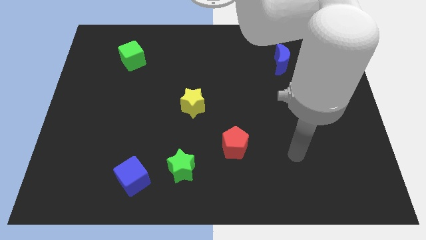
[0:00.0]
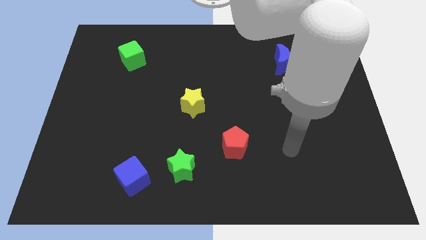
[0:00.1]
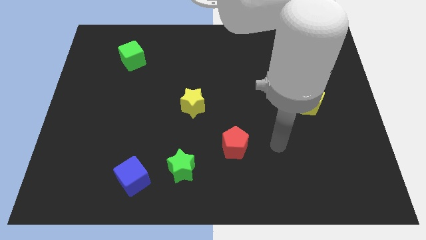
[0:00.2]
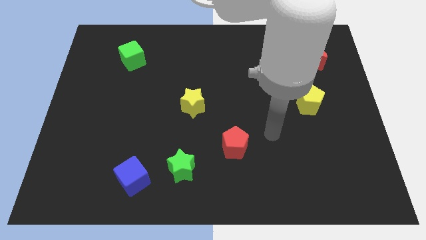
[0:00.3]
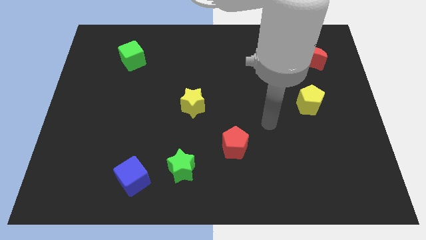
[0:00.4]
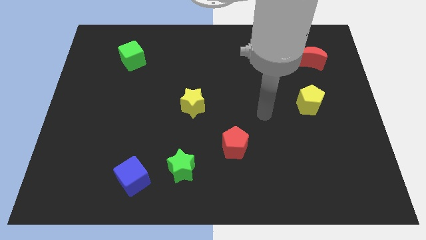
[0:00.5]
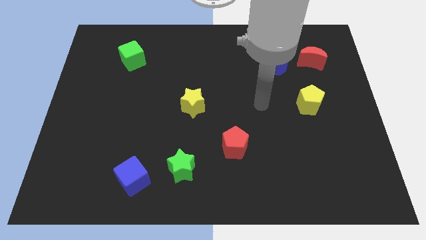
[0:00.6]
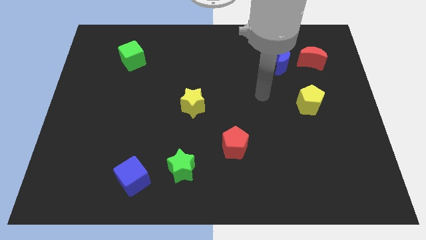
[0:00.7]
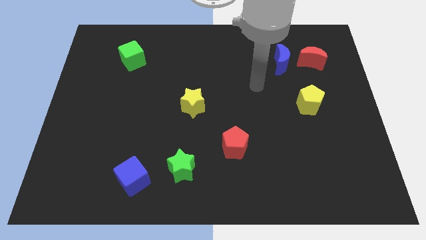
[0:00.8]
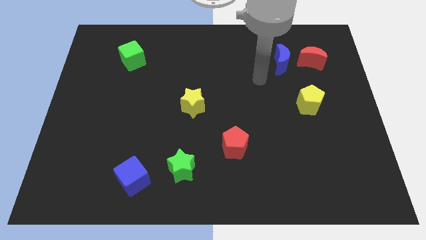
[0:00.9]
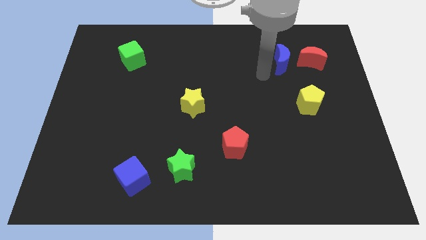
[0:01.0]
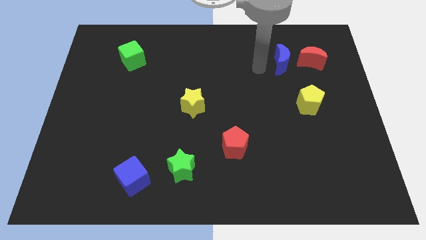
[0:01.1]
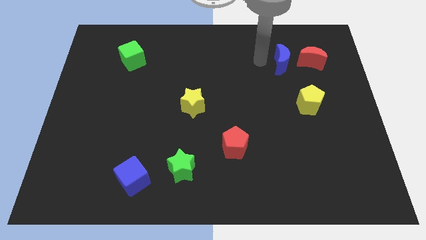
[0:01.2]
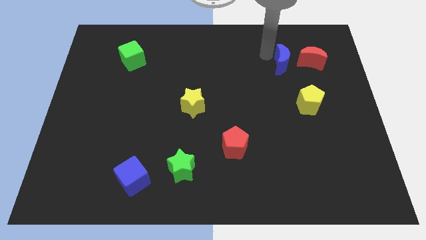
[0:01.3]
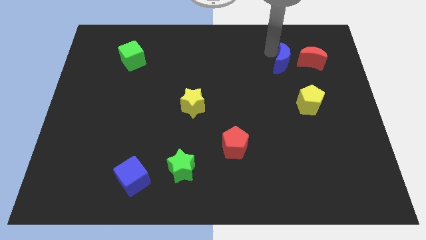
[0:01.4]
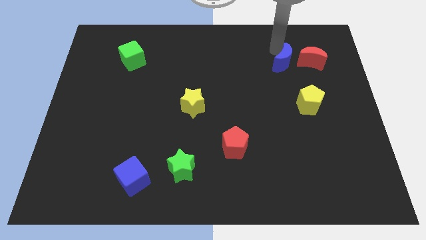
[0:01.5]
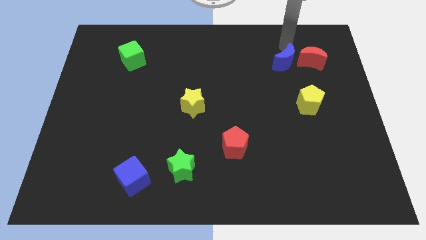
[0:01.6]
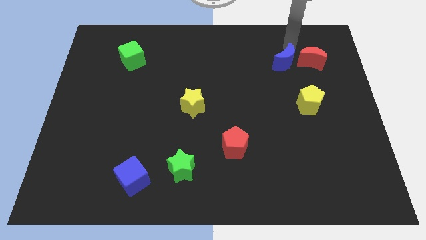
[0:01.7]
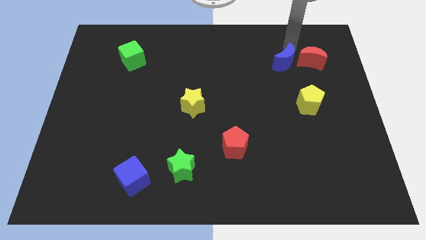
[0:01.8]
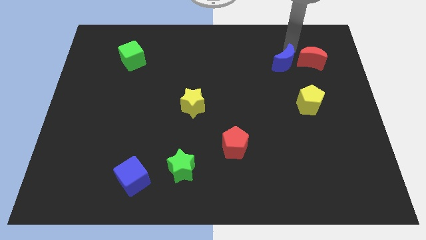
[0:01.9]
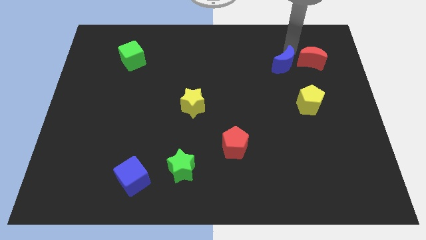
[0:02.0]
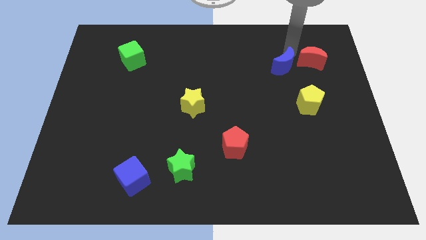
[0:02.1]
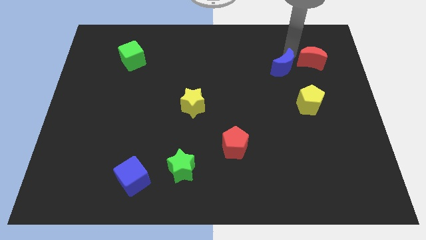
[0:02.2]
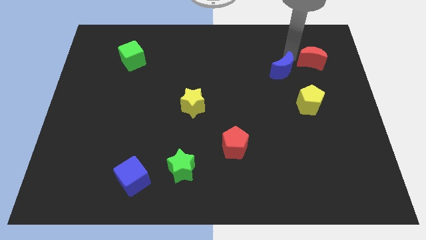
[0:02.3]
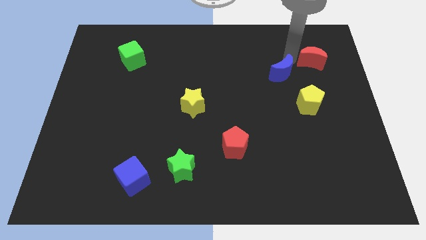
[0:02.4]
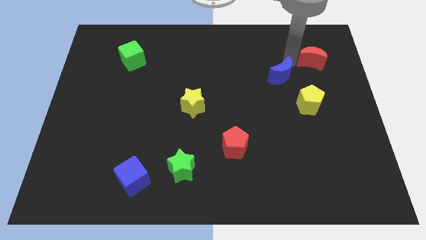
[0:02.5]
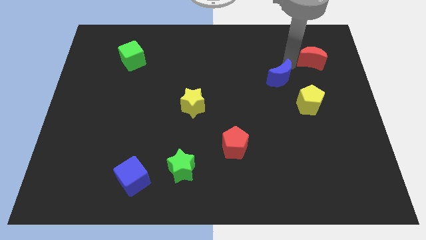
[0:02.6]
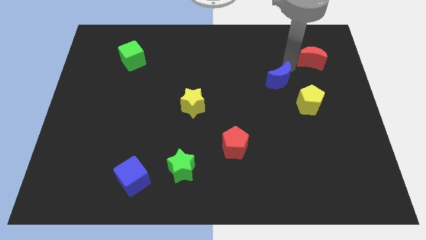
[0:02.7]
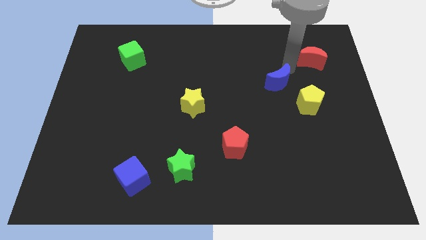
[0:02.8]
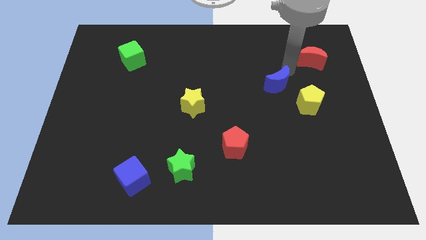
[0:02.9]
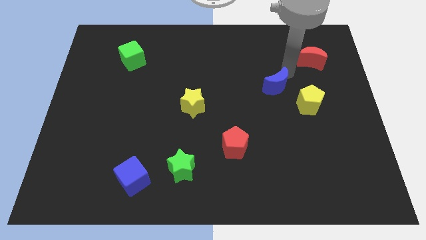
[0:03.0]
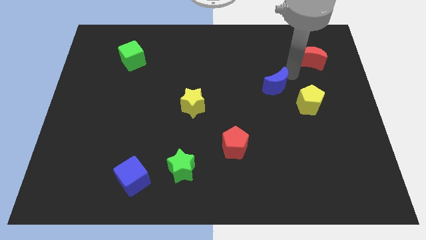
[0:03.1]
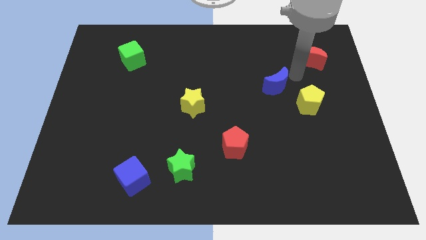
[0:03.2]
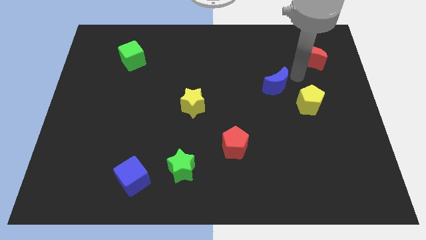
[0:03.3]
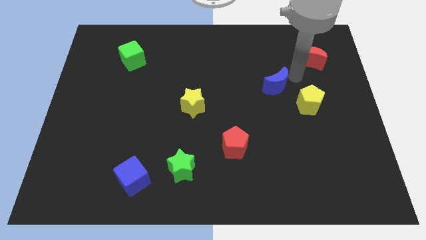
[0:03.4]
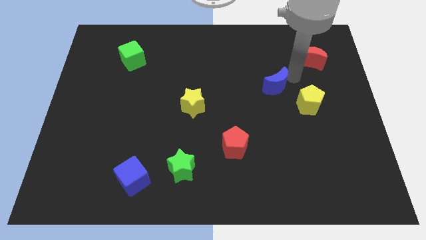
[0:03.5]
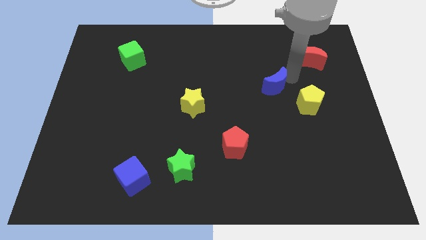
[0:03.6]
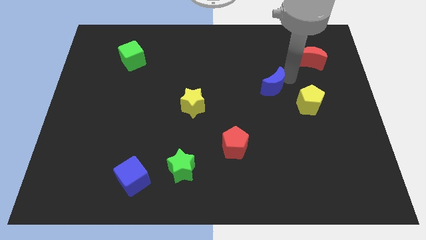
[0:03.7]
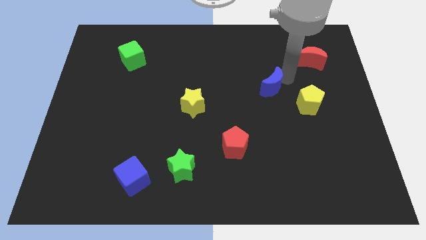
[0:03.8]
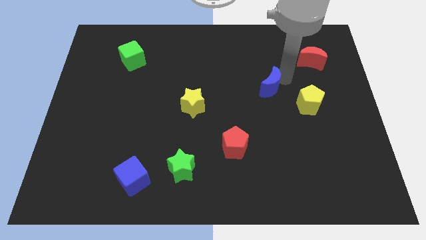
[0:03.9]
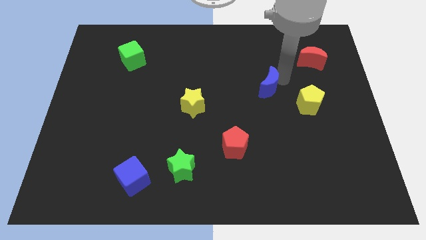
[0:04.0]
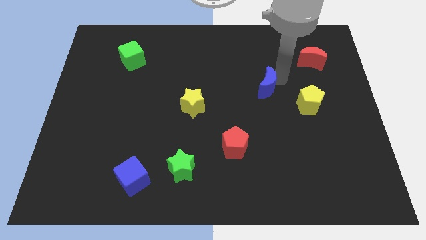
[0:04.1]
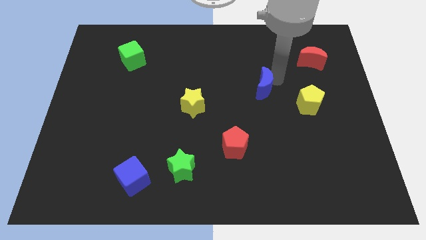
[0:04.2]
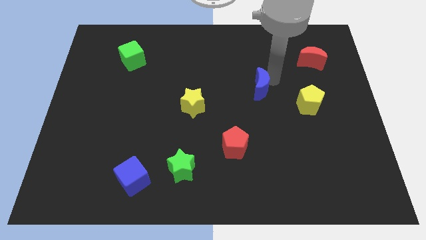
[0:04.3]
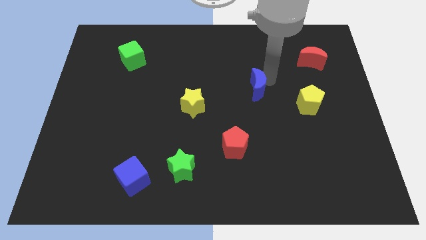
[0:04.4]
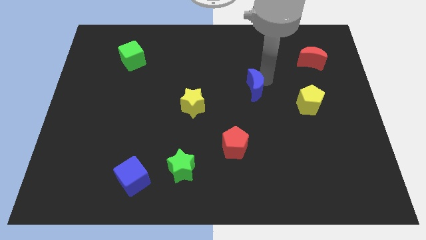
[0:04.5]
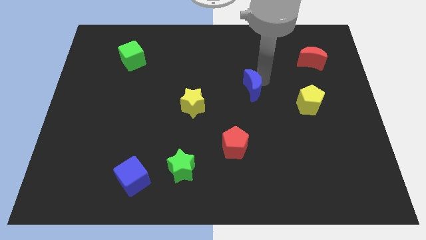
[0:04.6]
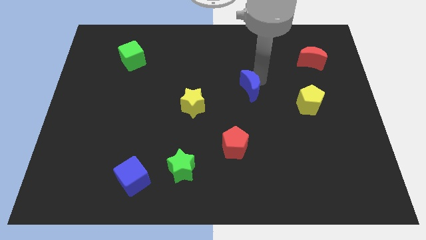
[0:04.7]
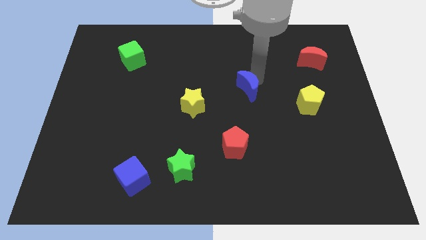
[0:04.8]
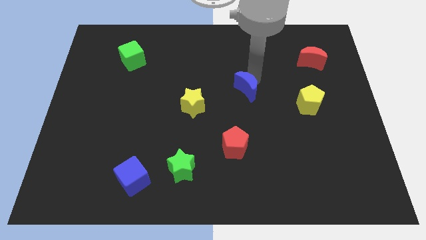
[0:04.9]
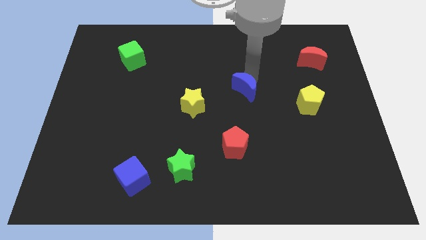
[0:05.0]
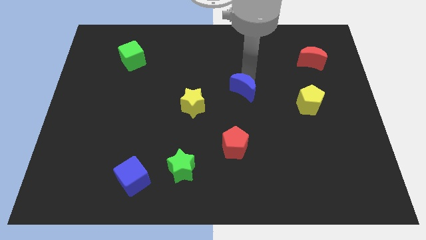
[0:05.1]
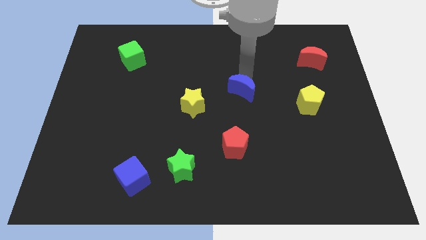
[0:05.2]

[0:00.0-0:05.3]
slide the blue moon right of the yellow star

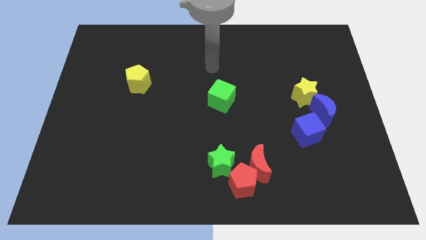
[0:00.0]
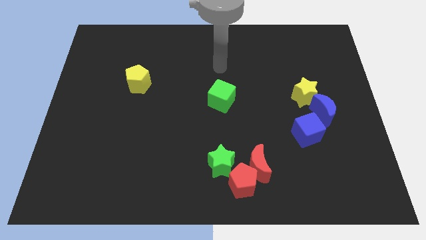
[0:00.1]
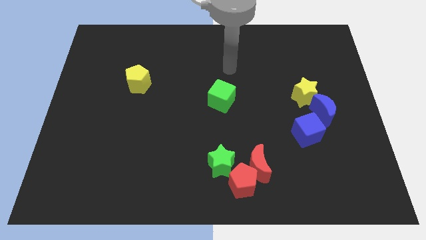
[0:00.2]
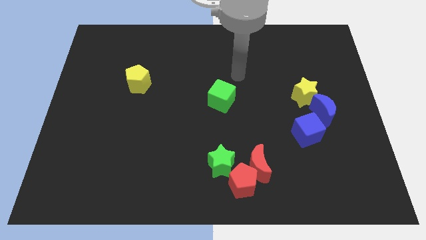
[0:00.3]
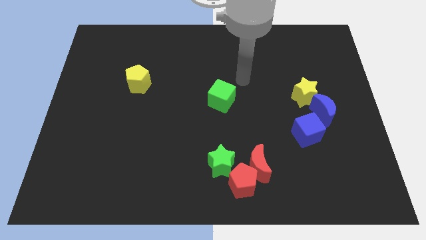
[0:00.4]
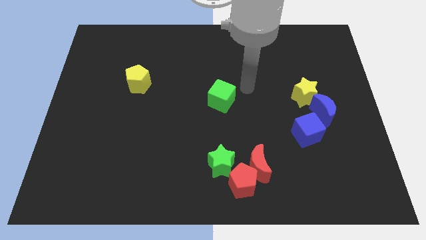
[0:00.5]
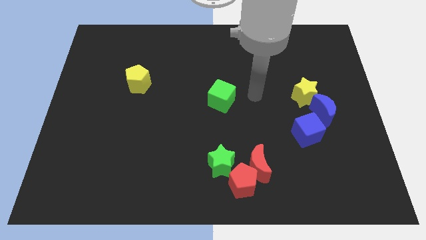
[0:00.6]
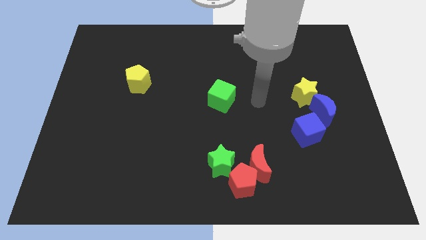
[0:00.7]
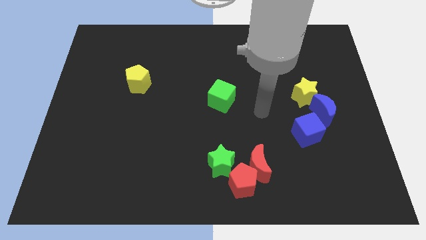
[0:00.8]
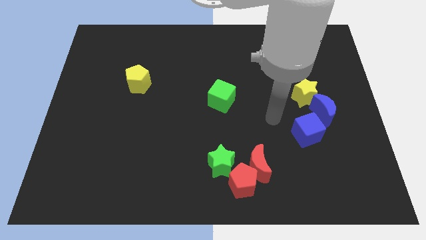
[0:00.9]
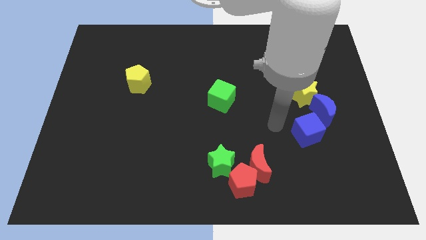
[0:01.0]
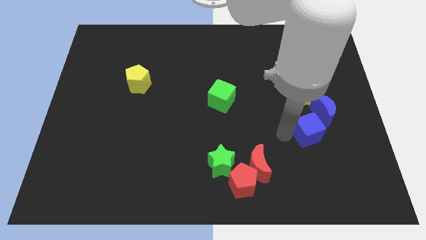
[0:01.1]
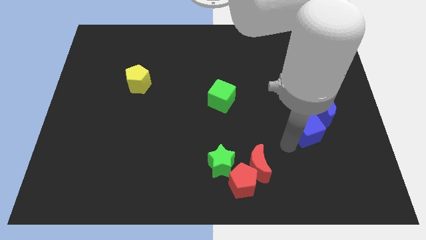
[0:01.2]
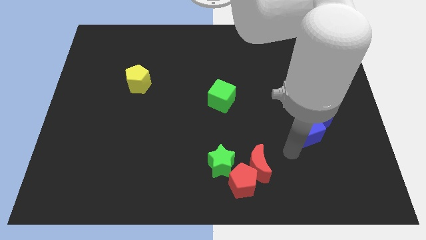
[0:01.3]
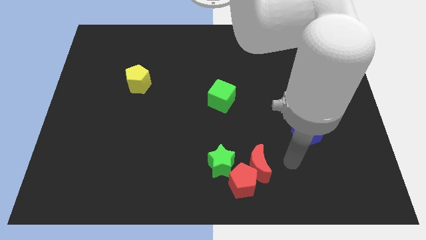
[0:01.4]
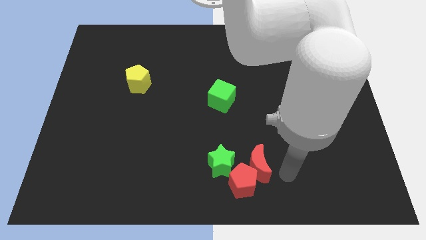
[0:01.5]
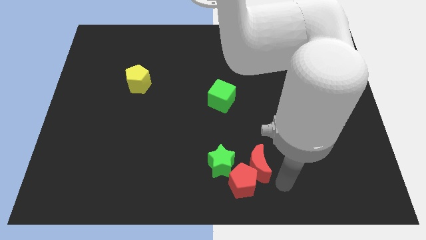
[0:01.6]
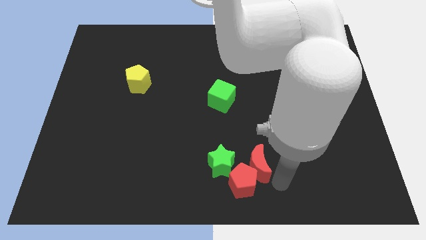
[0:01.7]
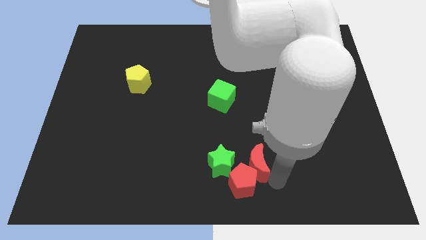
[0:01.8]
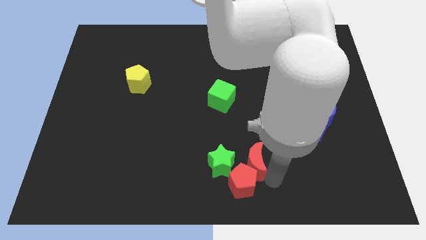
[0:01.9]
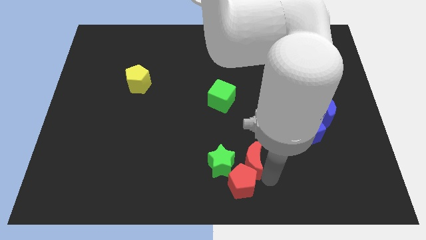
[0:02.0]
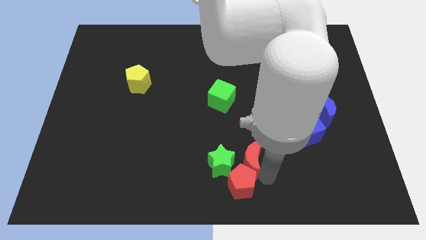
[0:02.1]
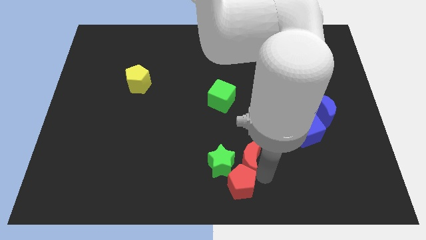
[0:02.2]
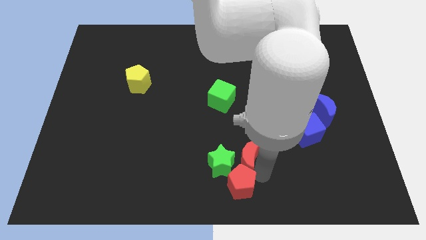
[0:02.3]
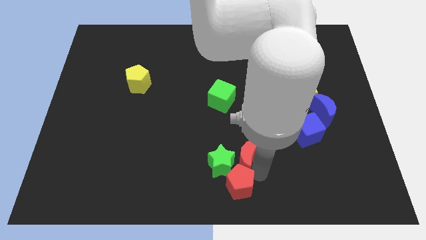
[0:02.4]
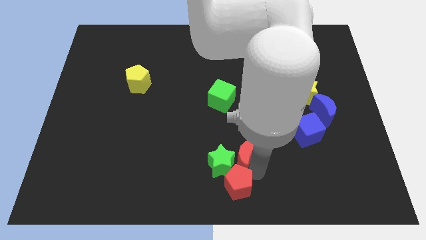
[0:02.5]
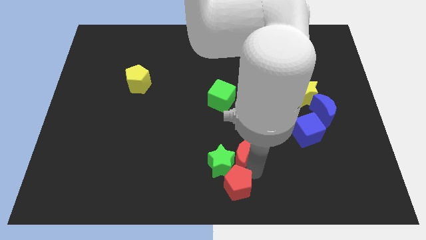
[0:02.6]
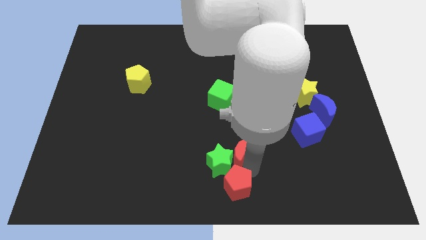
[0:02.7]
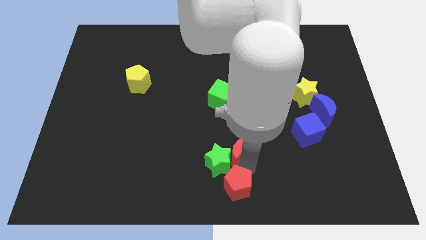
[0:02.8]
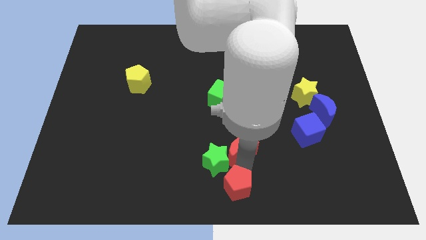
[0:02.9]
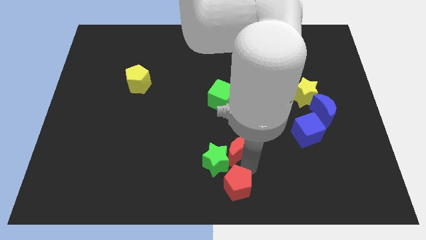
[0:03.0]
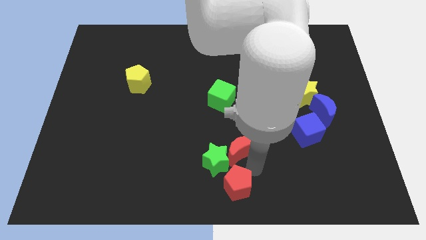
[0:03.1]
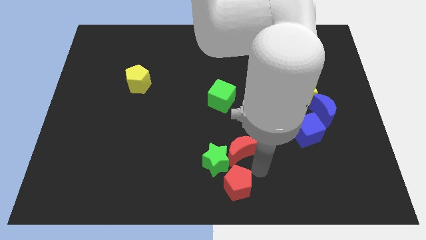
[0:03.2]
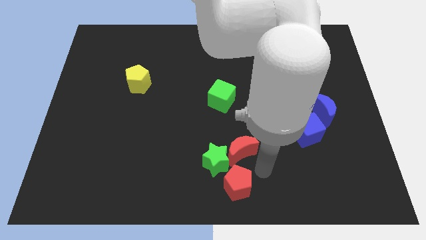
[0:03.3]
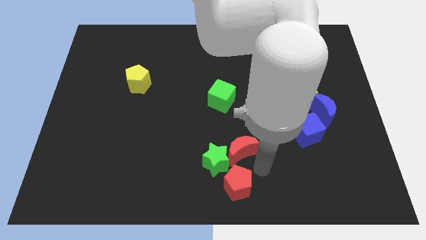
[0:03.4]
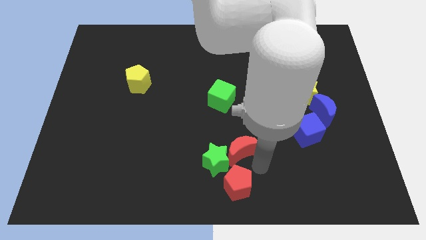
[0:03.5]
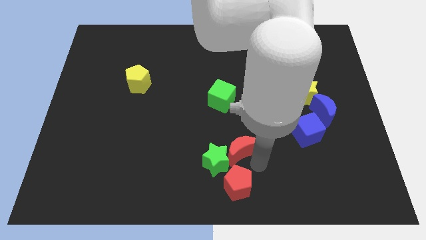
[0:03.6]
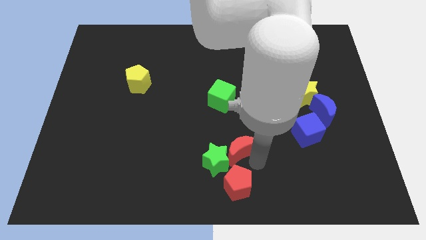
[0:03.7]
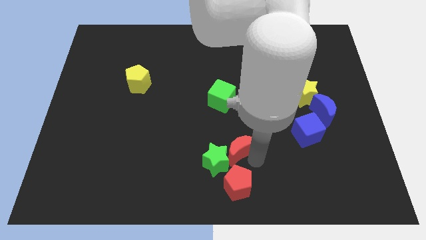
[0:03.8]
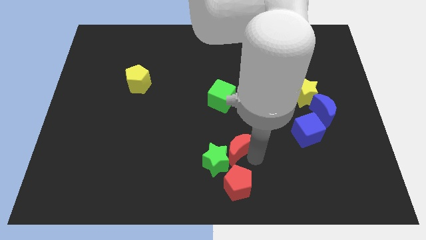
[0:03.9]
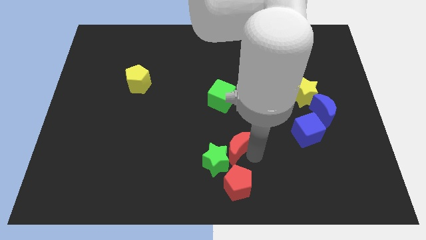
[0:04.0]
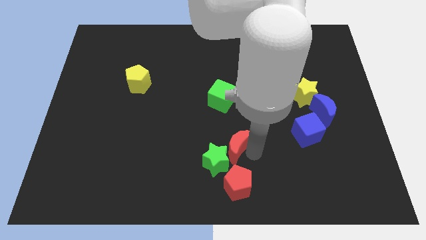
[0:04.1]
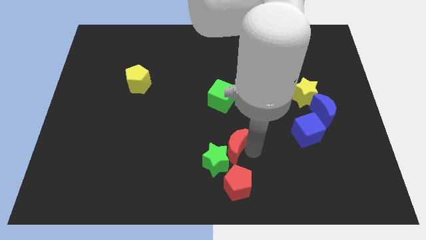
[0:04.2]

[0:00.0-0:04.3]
put the red moon to the top of the green star
